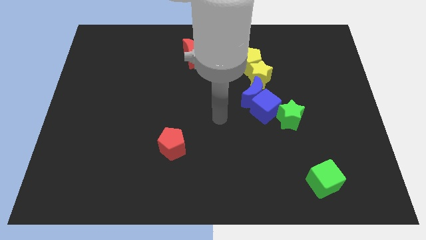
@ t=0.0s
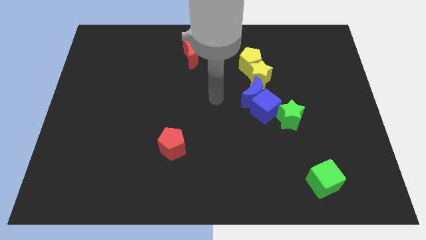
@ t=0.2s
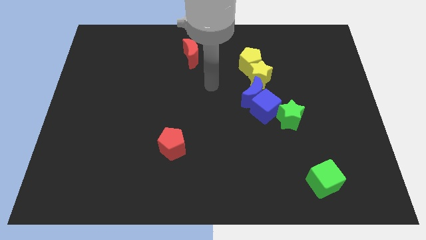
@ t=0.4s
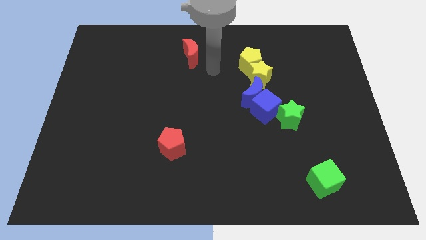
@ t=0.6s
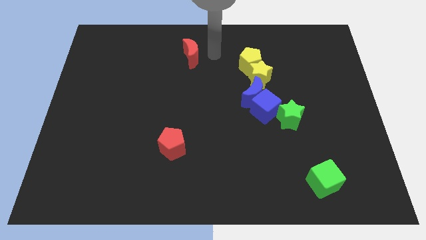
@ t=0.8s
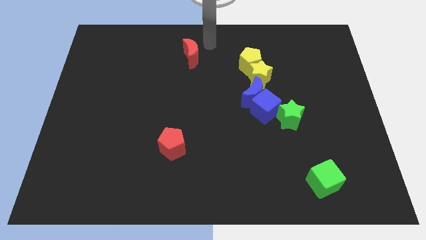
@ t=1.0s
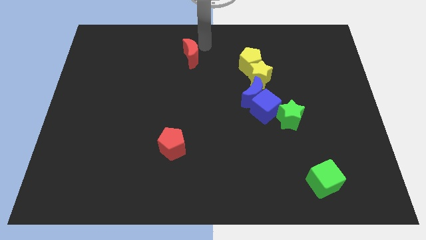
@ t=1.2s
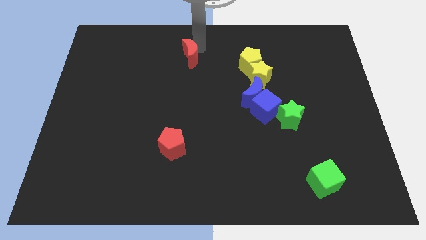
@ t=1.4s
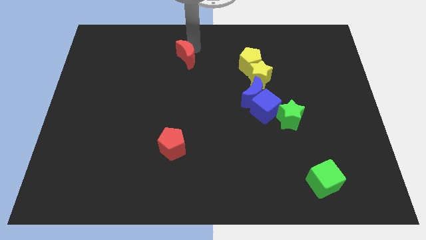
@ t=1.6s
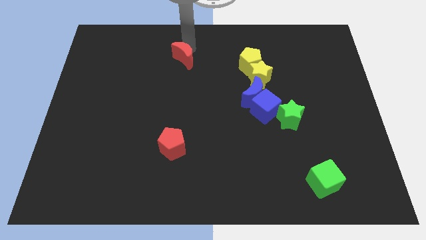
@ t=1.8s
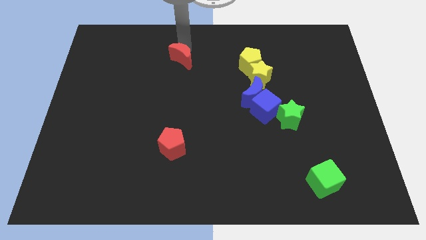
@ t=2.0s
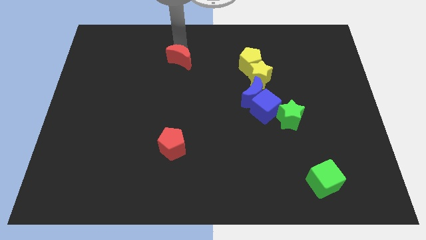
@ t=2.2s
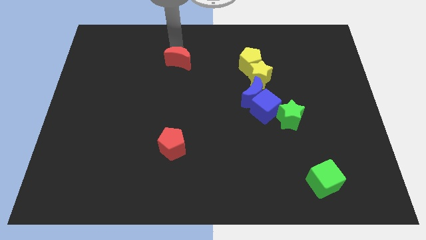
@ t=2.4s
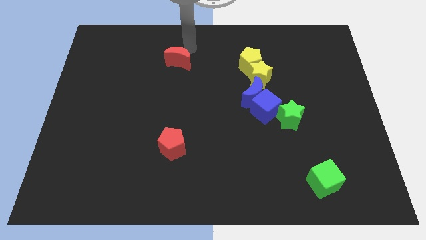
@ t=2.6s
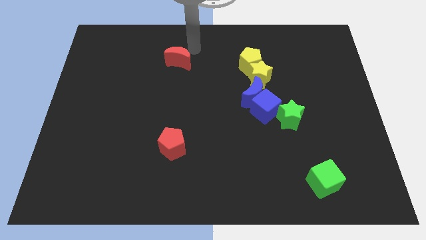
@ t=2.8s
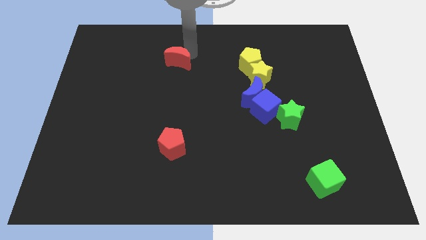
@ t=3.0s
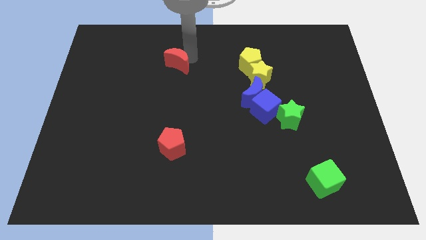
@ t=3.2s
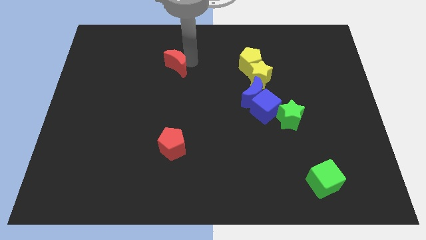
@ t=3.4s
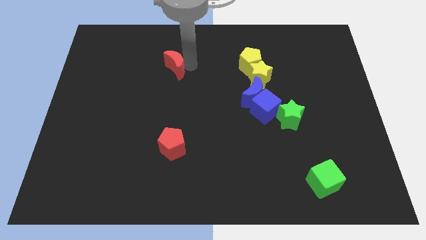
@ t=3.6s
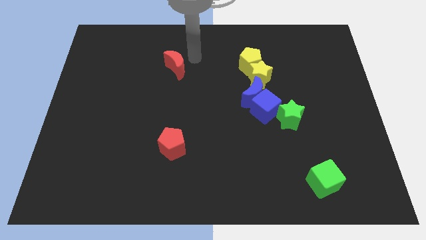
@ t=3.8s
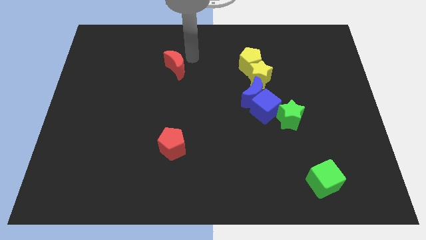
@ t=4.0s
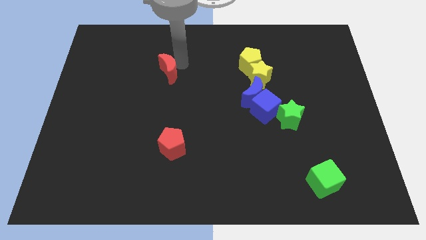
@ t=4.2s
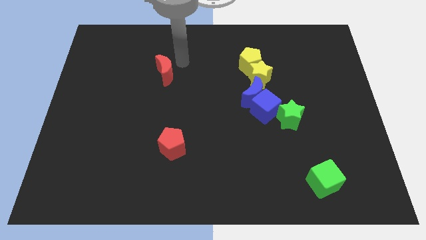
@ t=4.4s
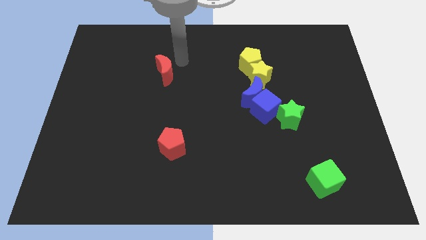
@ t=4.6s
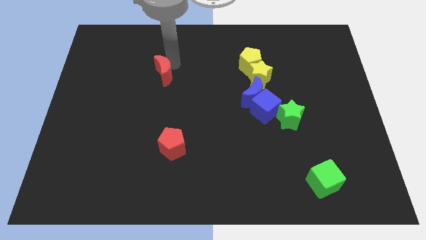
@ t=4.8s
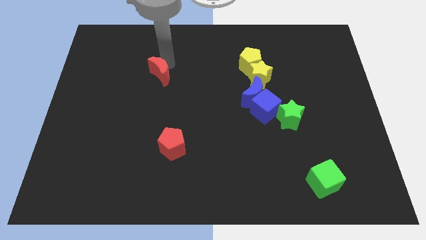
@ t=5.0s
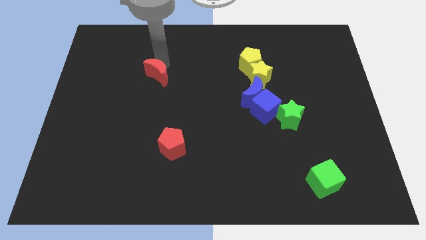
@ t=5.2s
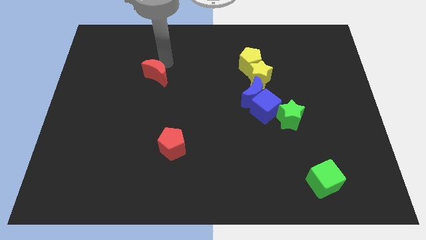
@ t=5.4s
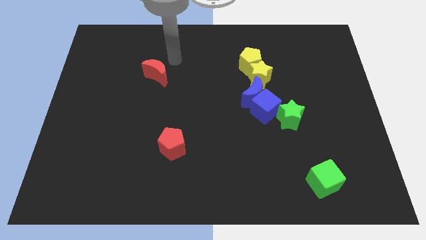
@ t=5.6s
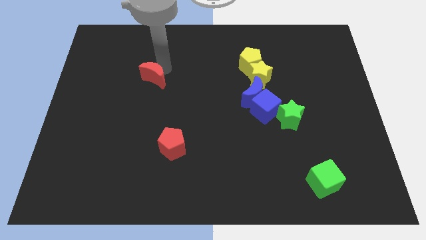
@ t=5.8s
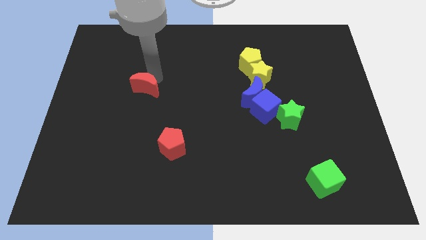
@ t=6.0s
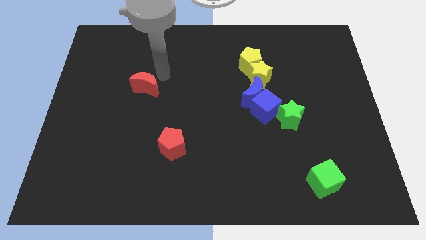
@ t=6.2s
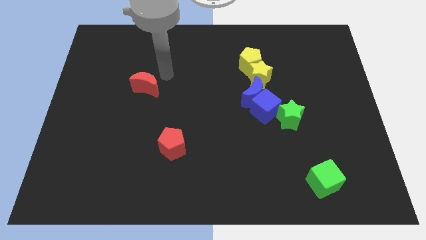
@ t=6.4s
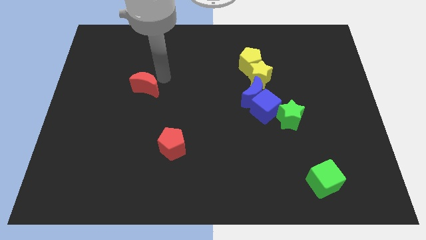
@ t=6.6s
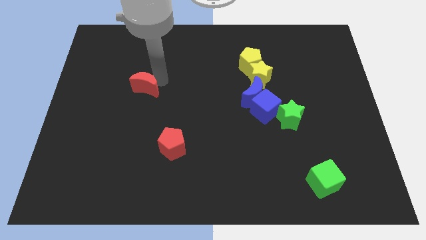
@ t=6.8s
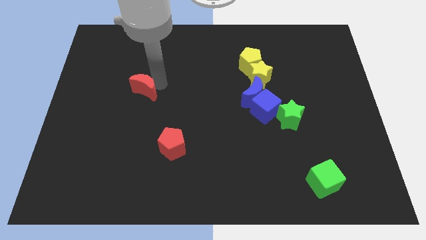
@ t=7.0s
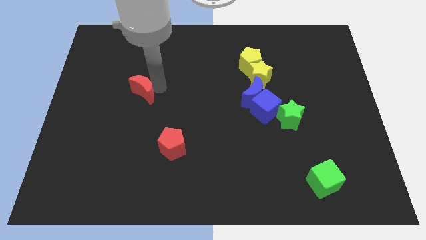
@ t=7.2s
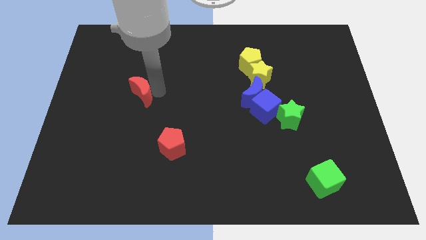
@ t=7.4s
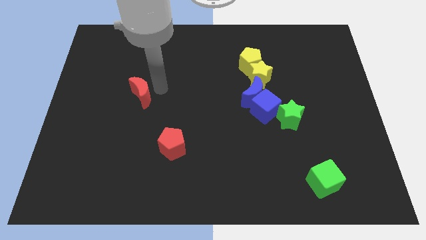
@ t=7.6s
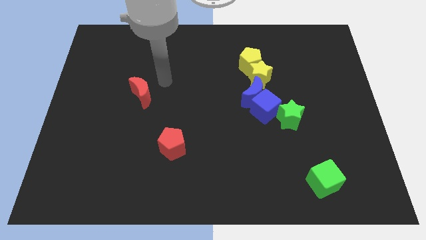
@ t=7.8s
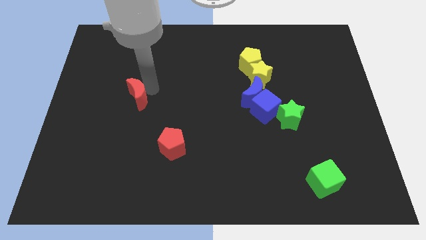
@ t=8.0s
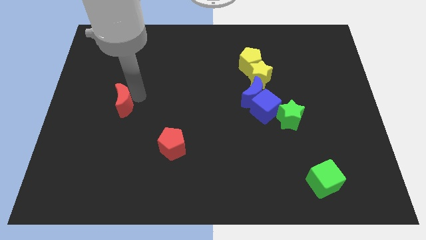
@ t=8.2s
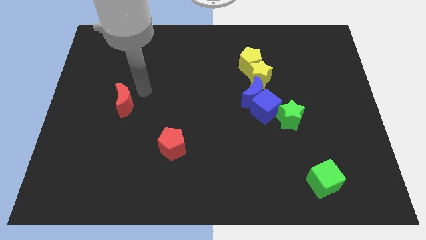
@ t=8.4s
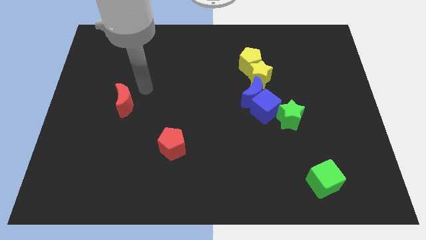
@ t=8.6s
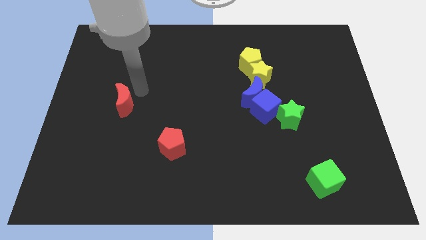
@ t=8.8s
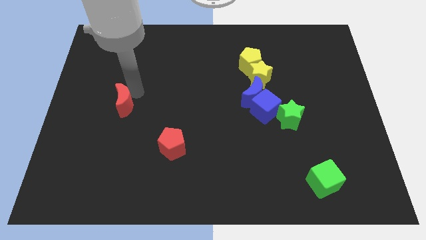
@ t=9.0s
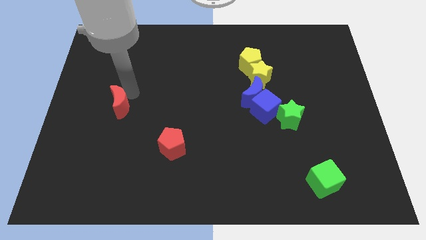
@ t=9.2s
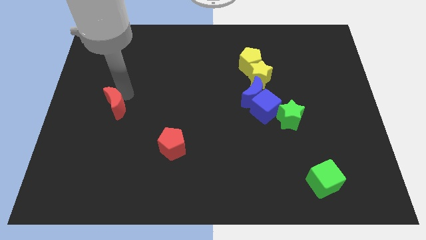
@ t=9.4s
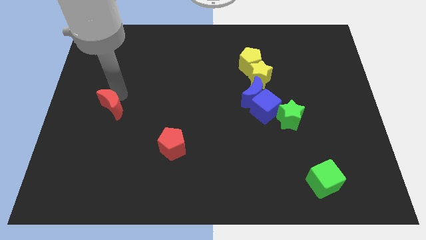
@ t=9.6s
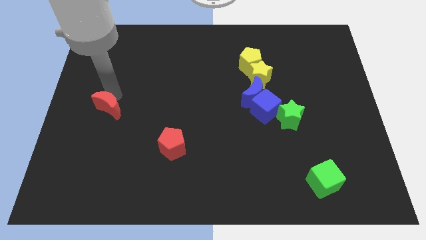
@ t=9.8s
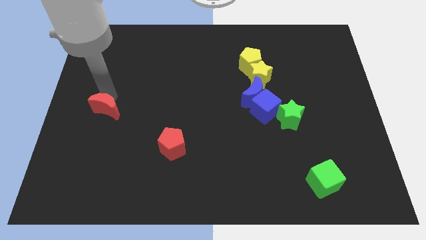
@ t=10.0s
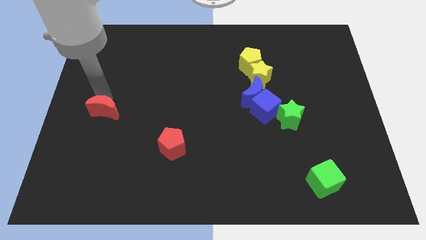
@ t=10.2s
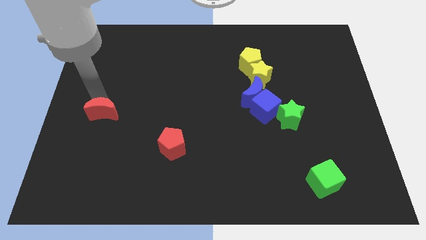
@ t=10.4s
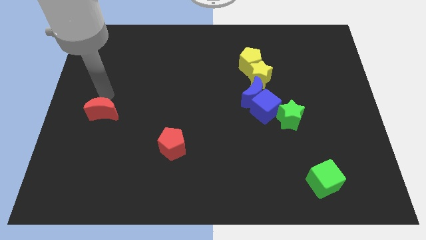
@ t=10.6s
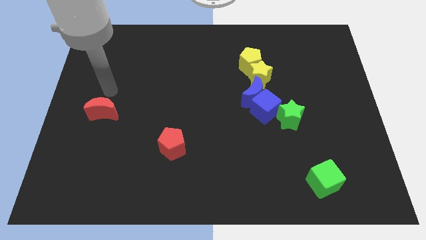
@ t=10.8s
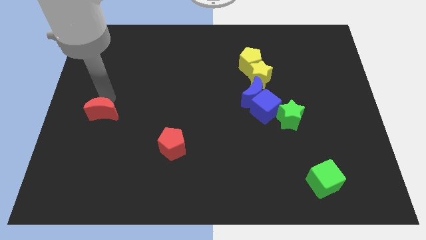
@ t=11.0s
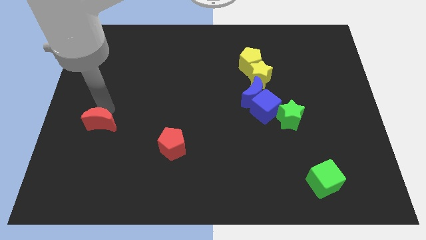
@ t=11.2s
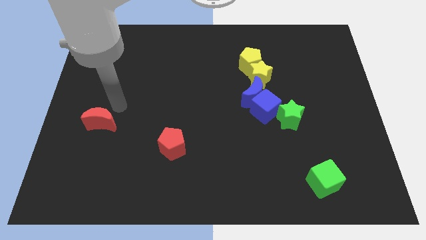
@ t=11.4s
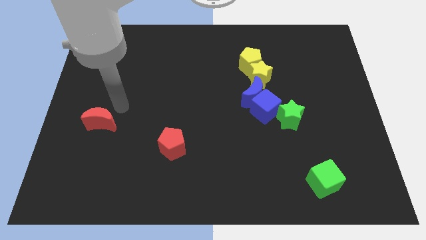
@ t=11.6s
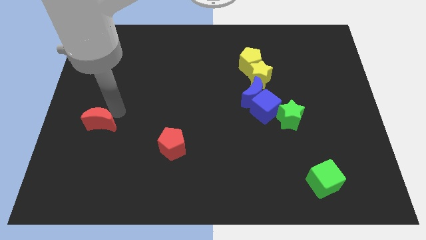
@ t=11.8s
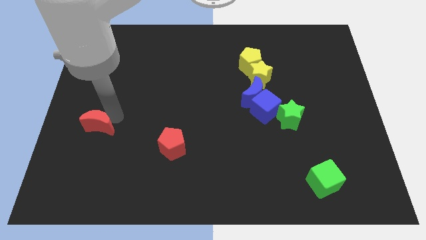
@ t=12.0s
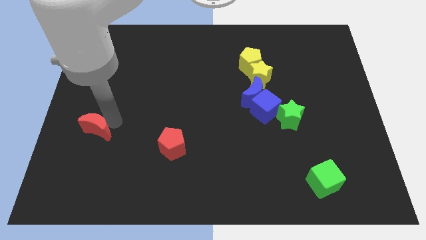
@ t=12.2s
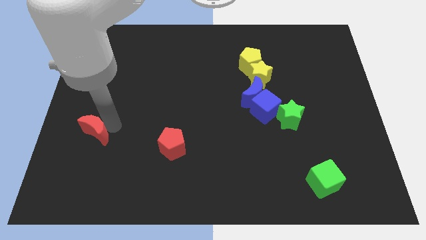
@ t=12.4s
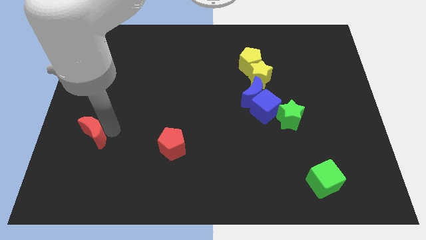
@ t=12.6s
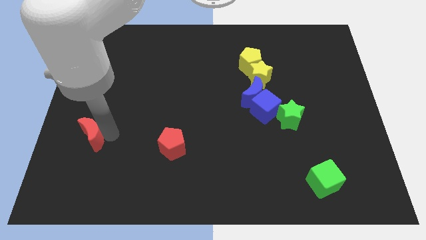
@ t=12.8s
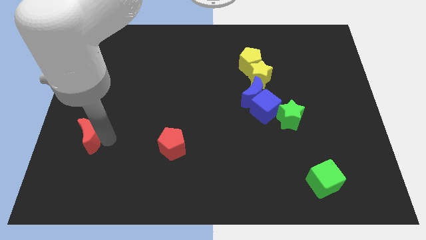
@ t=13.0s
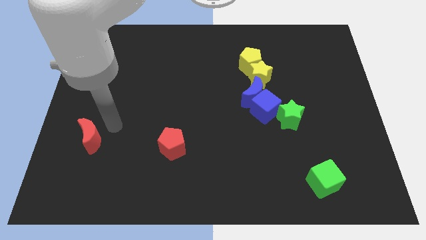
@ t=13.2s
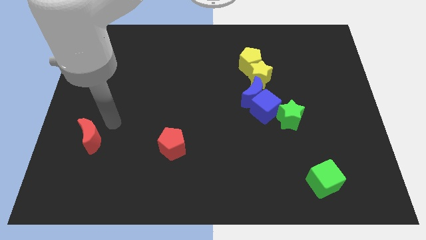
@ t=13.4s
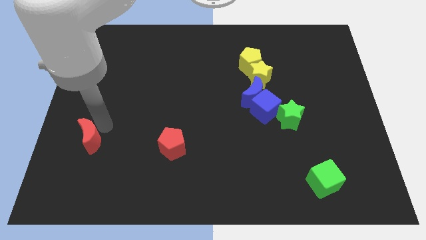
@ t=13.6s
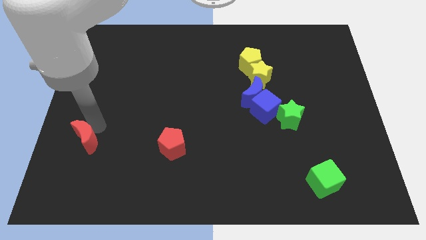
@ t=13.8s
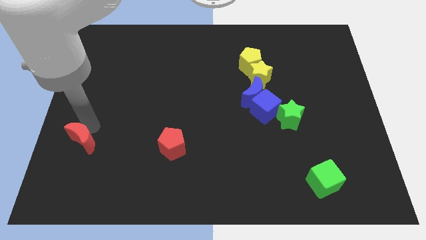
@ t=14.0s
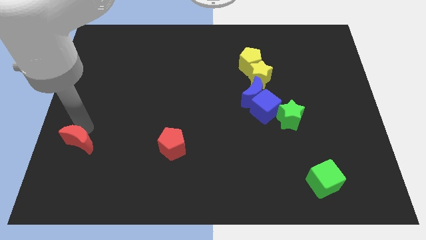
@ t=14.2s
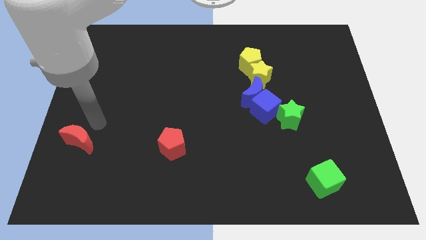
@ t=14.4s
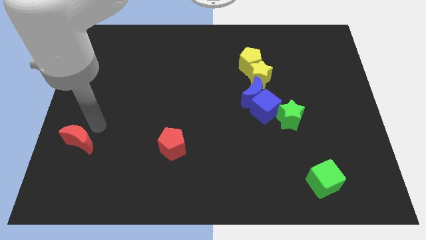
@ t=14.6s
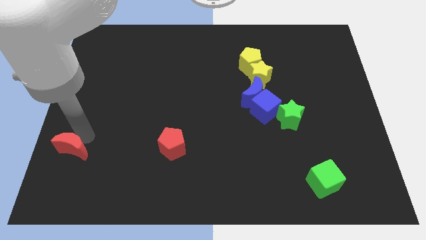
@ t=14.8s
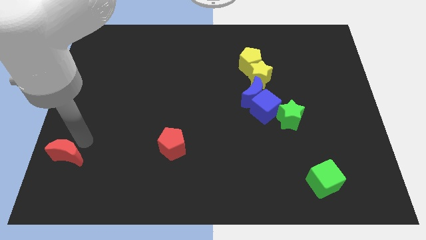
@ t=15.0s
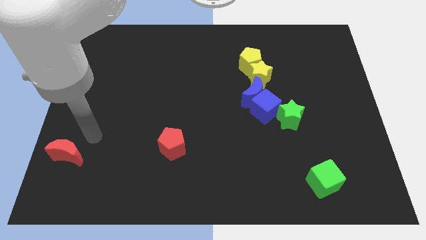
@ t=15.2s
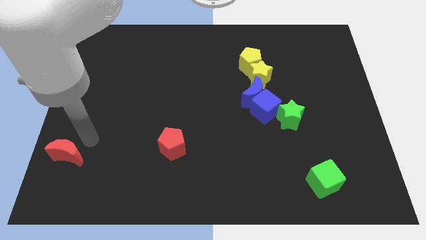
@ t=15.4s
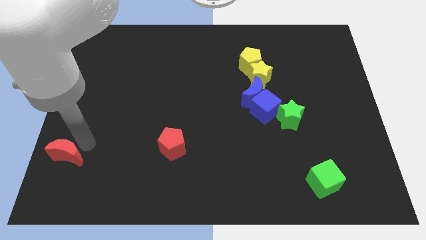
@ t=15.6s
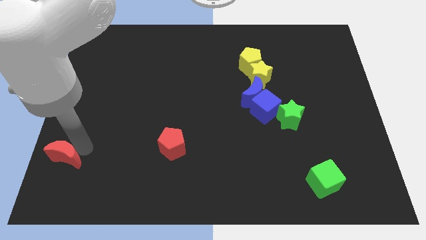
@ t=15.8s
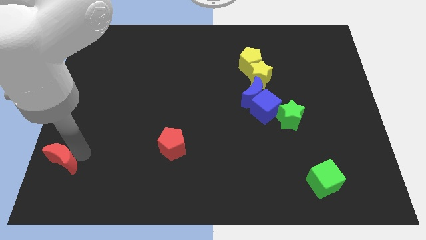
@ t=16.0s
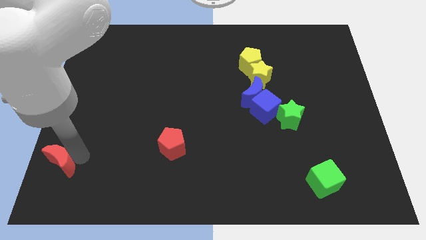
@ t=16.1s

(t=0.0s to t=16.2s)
put the red moon to the bottom left
